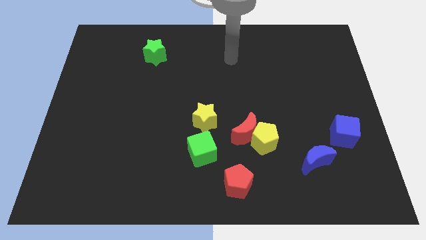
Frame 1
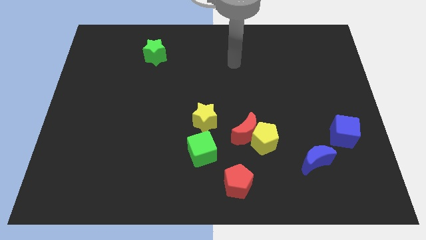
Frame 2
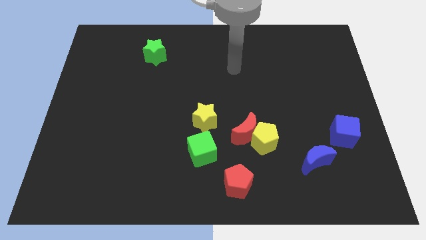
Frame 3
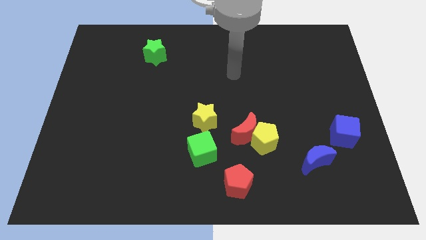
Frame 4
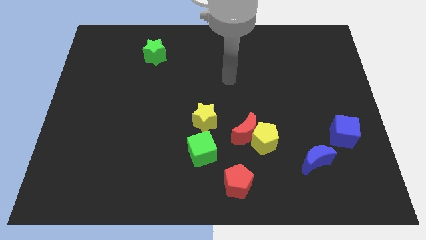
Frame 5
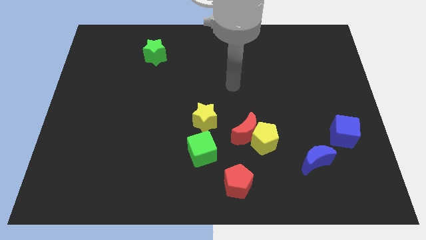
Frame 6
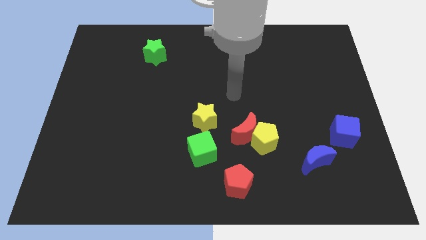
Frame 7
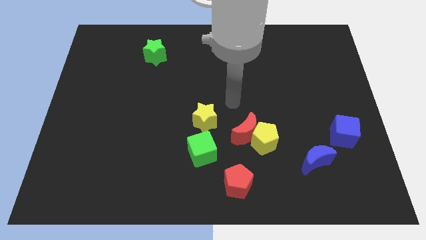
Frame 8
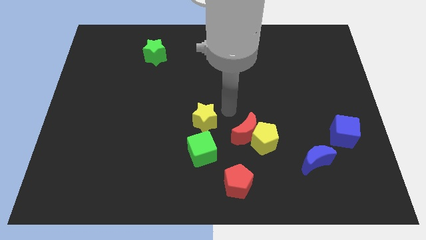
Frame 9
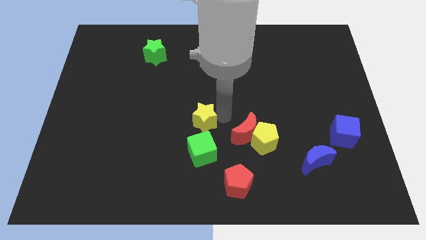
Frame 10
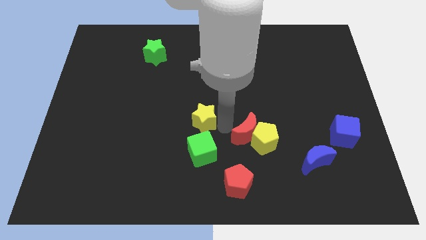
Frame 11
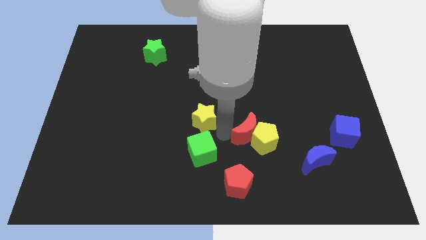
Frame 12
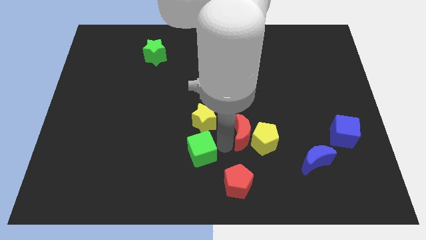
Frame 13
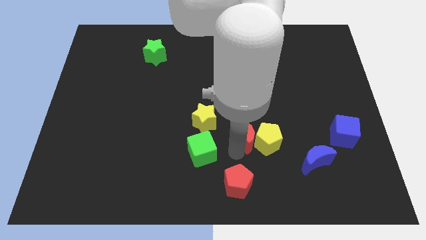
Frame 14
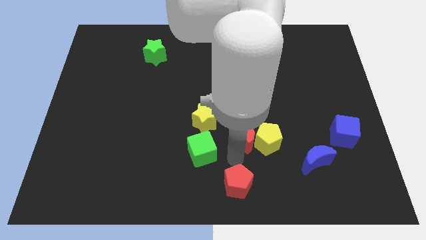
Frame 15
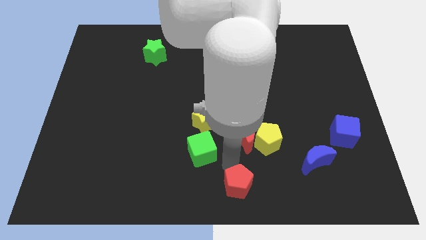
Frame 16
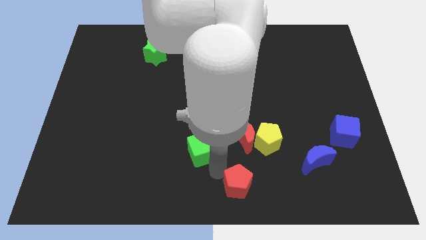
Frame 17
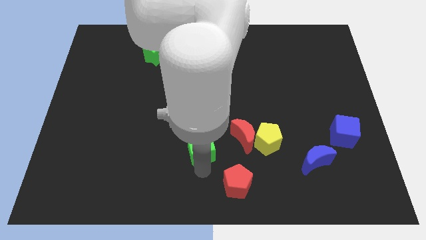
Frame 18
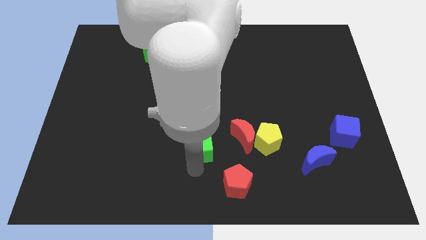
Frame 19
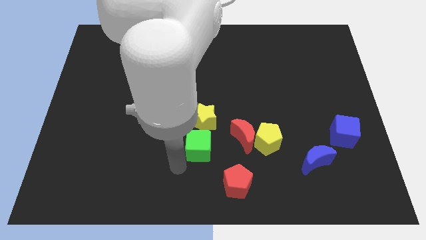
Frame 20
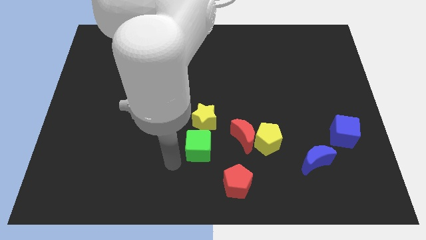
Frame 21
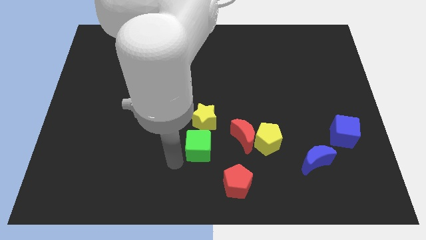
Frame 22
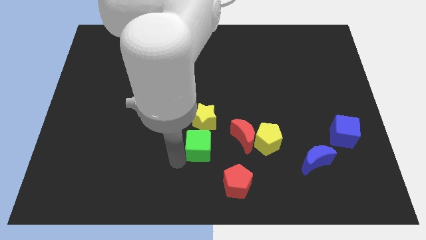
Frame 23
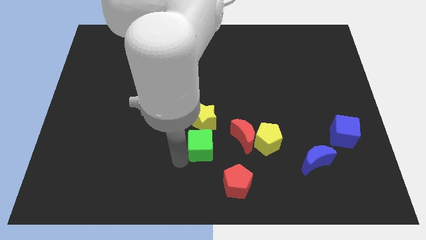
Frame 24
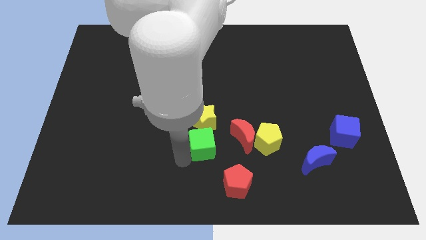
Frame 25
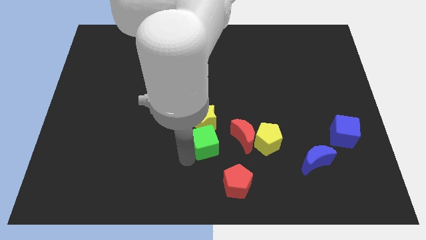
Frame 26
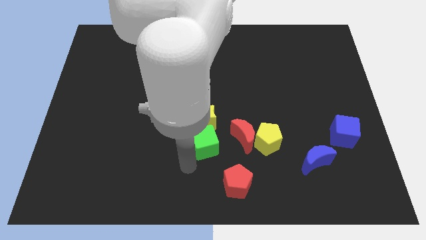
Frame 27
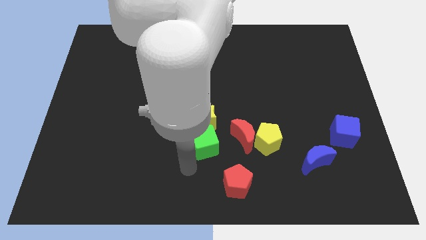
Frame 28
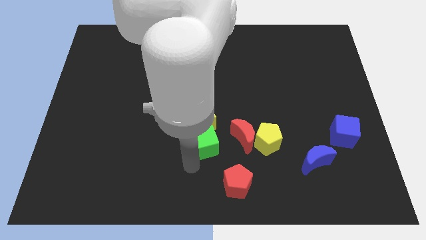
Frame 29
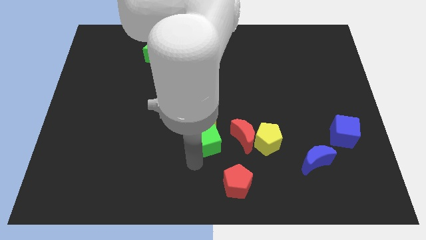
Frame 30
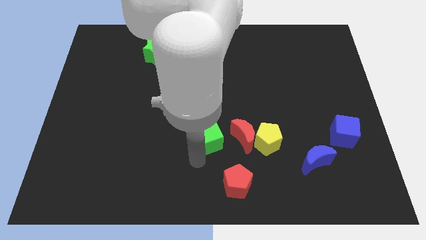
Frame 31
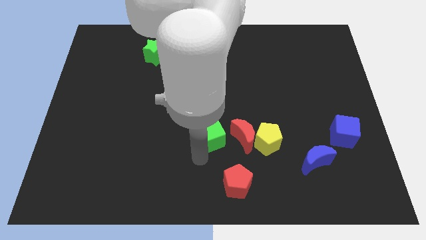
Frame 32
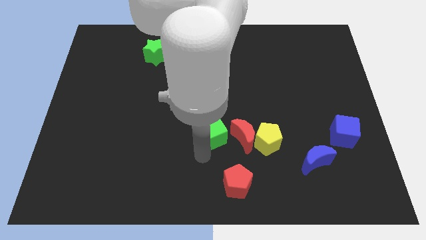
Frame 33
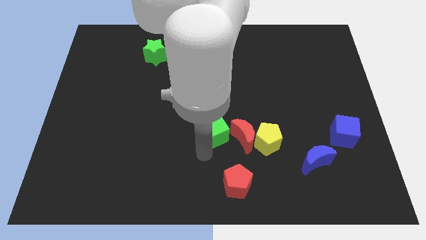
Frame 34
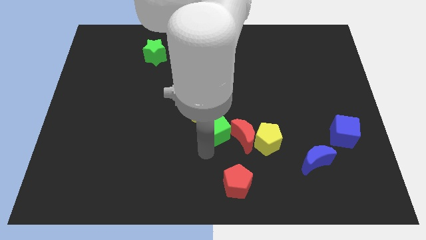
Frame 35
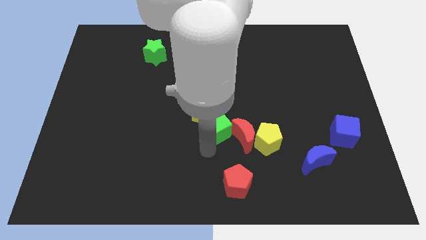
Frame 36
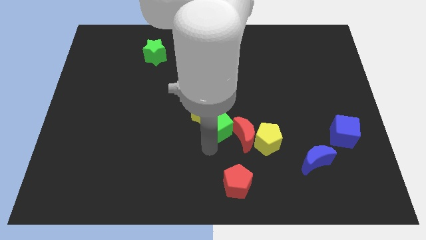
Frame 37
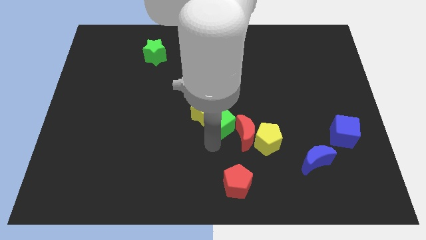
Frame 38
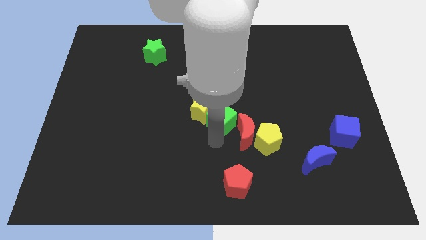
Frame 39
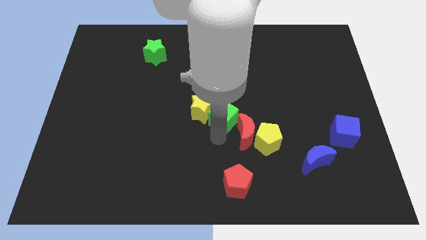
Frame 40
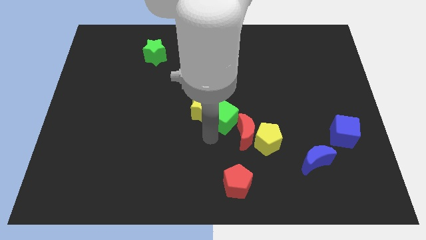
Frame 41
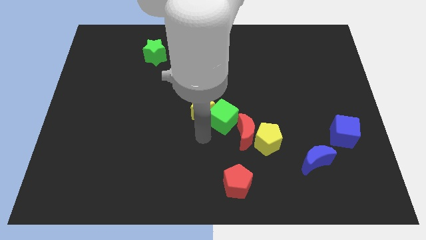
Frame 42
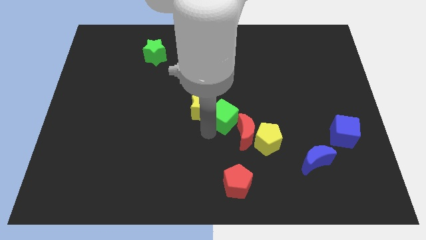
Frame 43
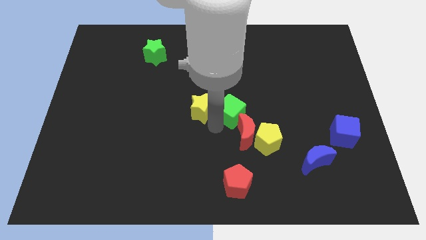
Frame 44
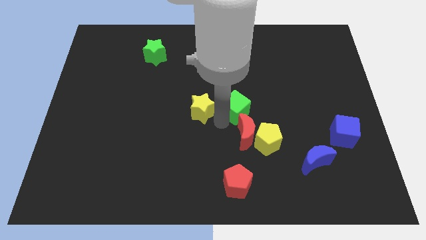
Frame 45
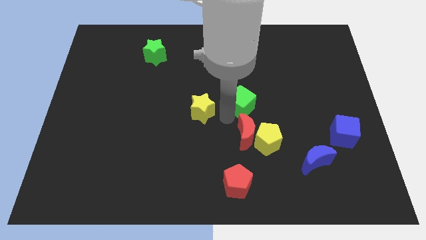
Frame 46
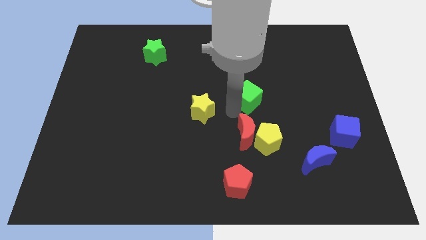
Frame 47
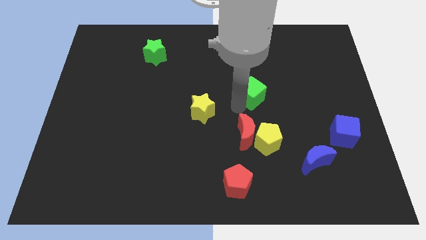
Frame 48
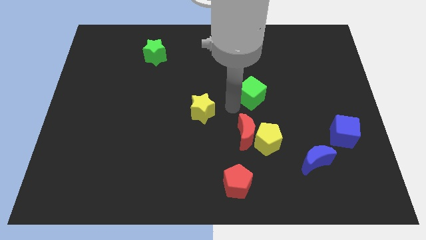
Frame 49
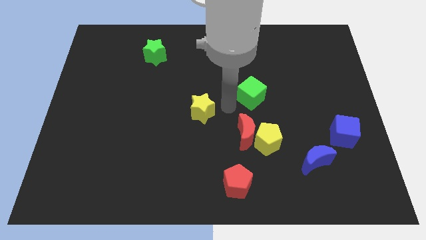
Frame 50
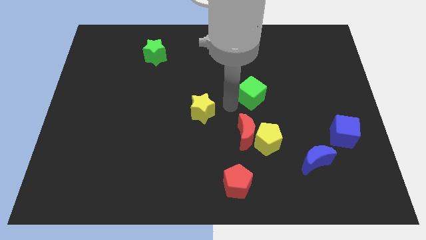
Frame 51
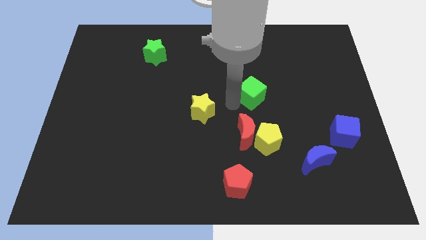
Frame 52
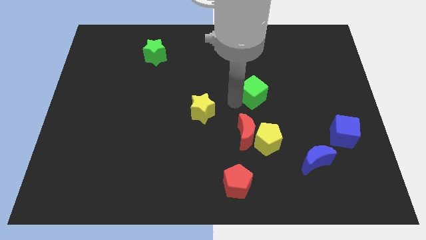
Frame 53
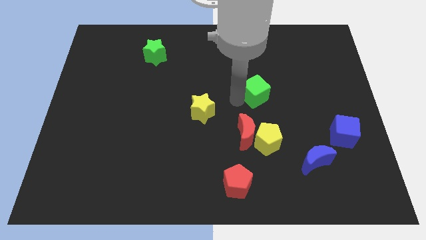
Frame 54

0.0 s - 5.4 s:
push the green cube diagonally upwards and to the right

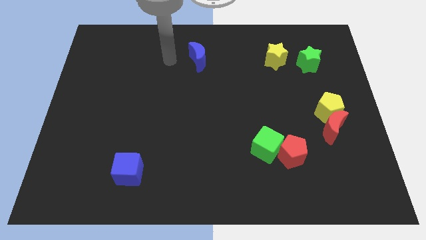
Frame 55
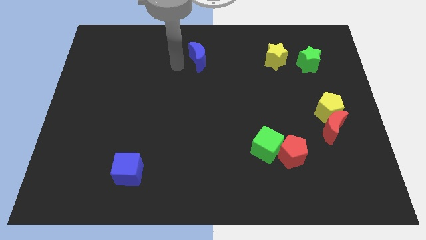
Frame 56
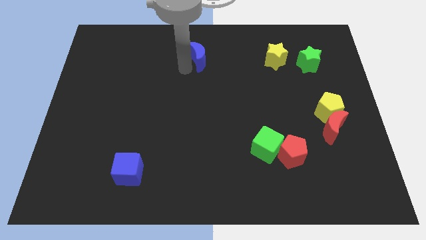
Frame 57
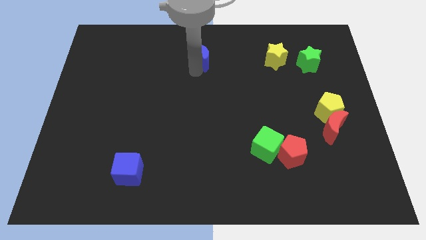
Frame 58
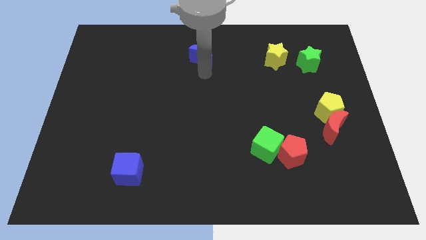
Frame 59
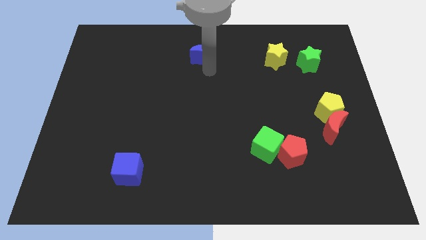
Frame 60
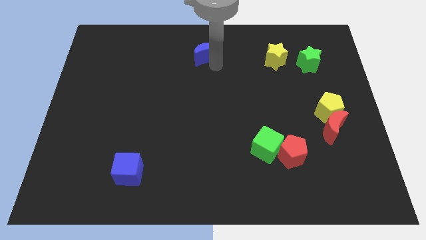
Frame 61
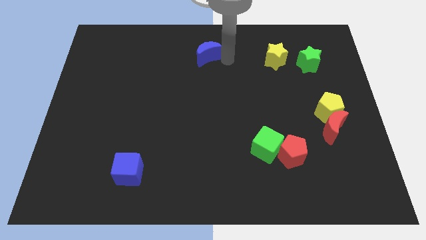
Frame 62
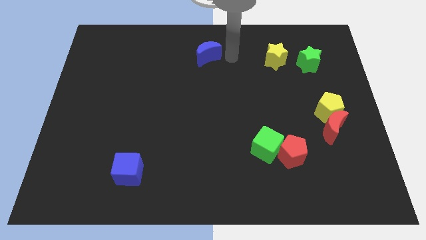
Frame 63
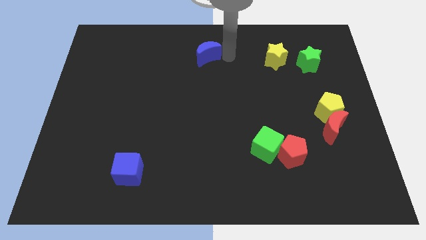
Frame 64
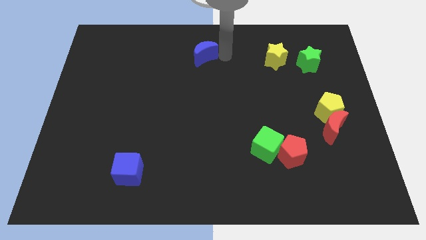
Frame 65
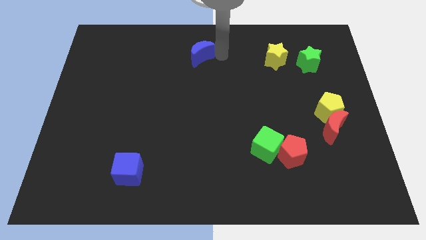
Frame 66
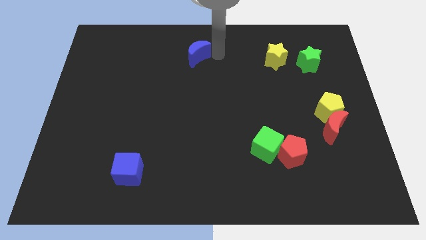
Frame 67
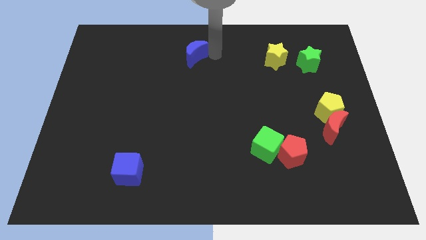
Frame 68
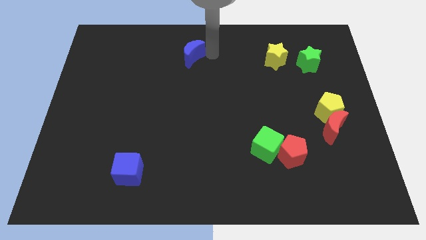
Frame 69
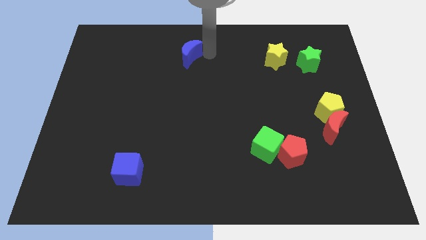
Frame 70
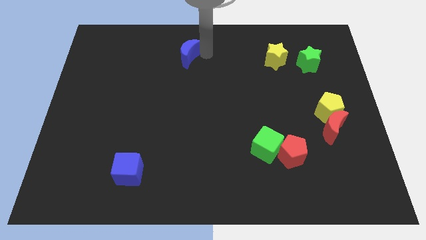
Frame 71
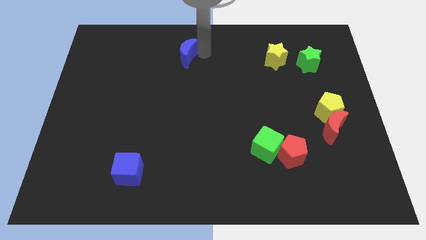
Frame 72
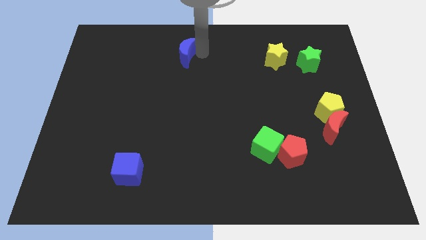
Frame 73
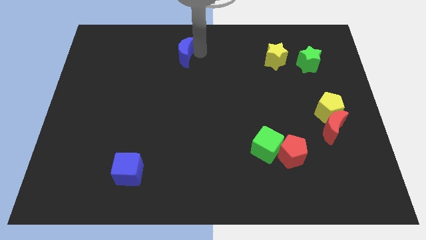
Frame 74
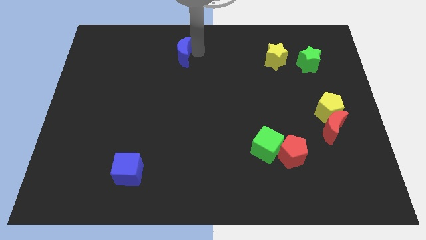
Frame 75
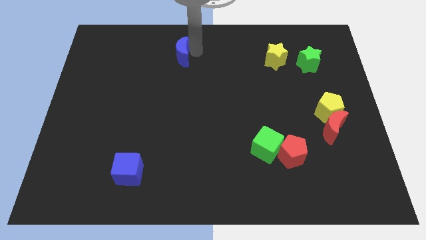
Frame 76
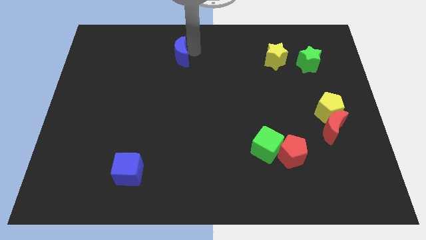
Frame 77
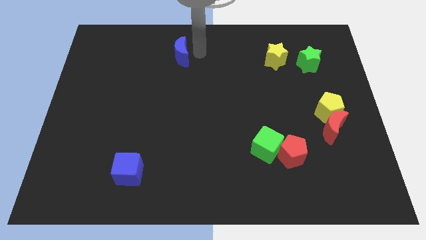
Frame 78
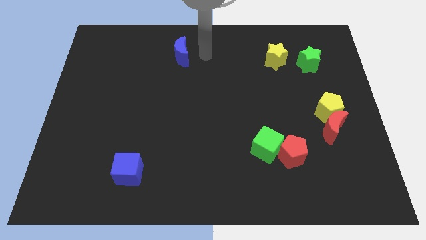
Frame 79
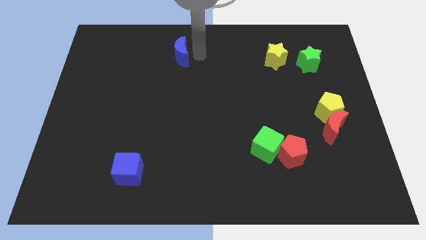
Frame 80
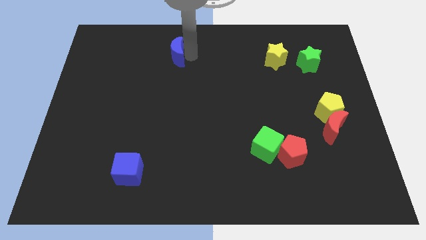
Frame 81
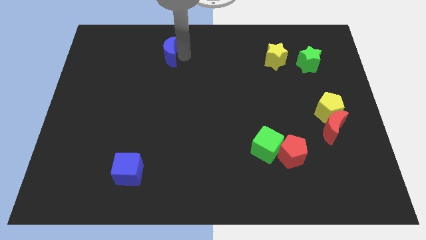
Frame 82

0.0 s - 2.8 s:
slide the blue moon a little to the left
